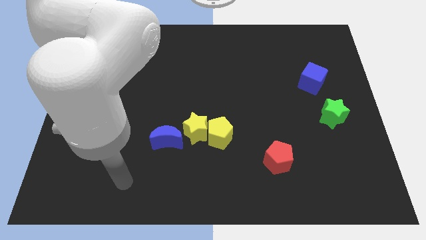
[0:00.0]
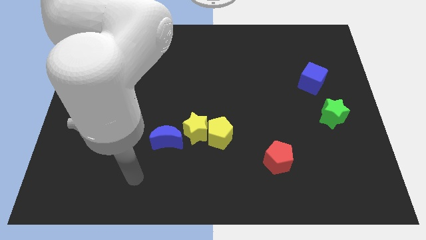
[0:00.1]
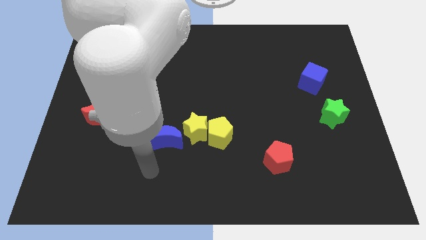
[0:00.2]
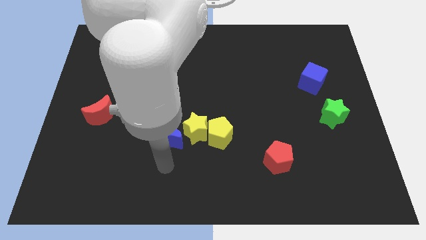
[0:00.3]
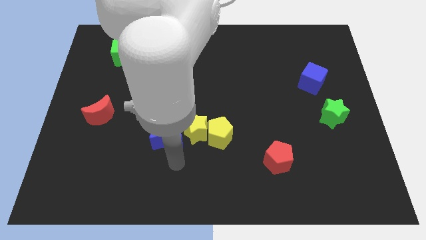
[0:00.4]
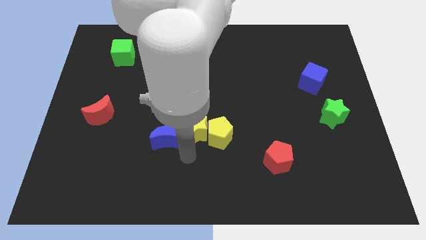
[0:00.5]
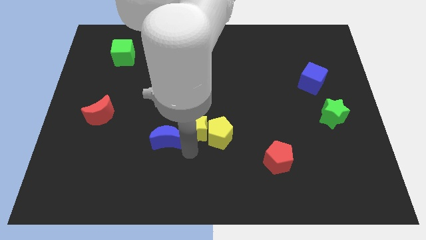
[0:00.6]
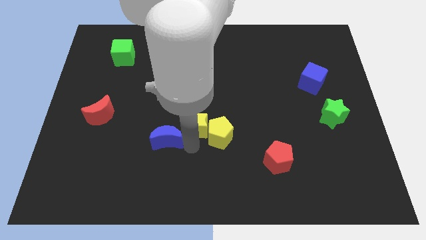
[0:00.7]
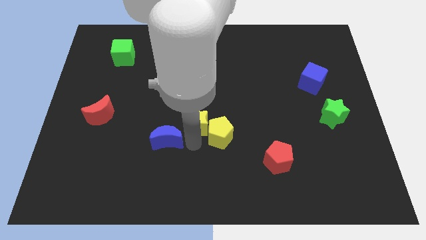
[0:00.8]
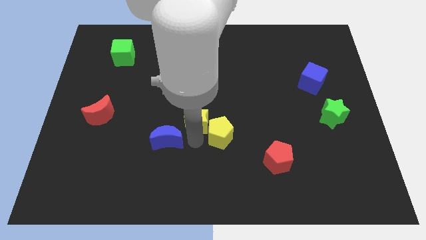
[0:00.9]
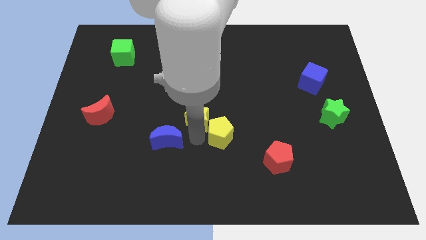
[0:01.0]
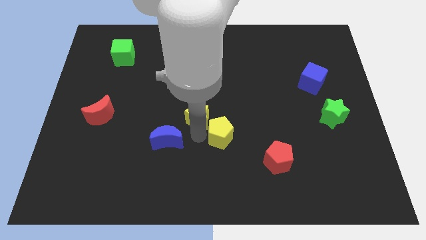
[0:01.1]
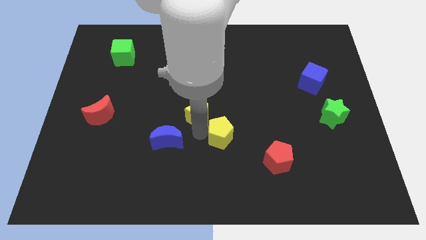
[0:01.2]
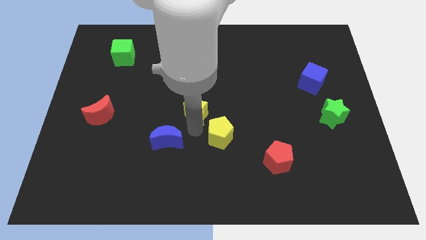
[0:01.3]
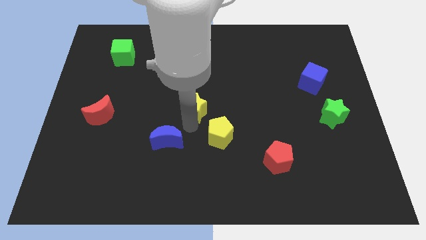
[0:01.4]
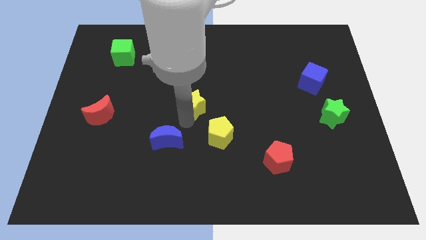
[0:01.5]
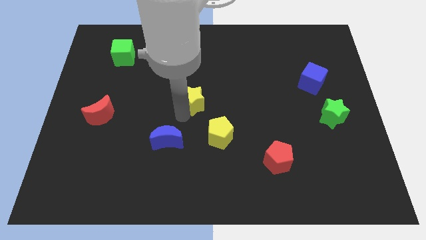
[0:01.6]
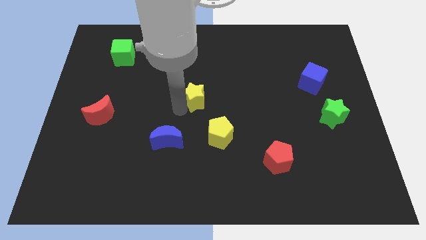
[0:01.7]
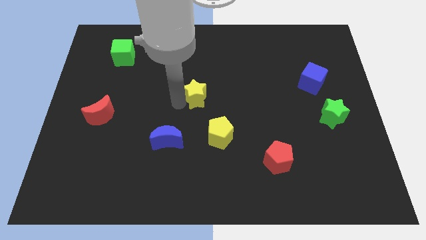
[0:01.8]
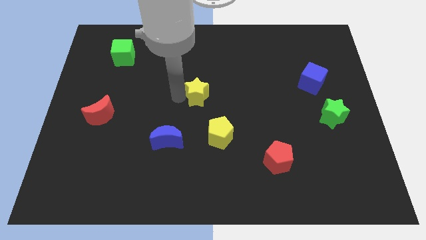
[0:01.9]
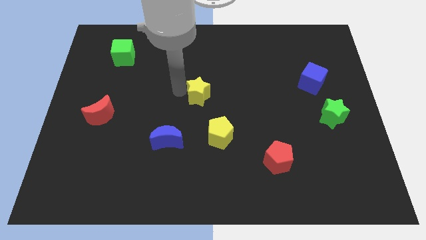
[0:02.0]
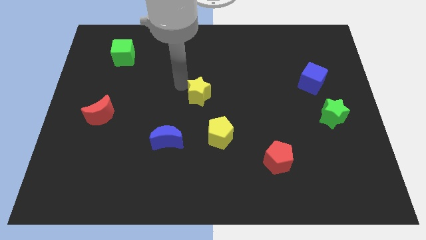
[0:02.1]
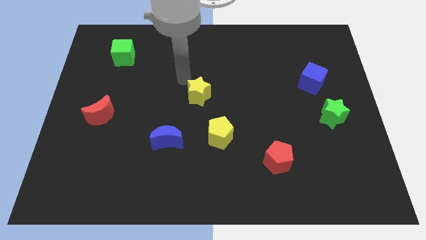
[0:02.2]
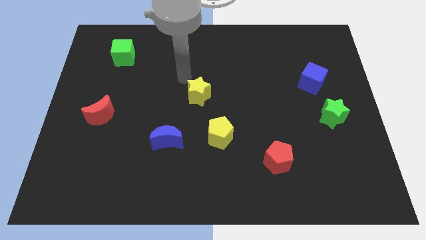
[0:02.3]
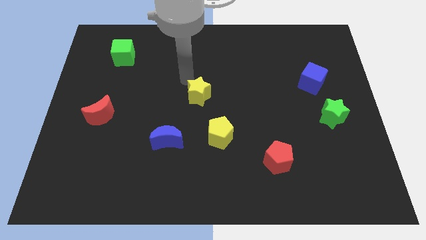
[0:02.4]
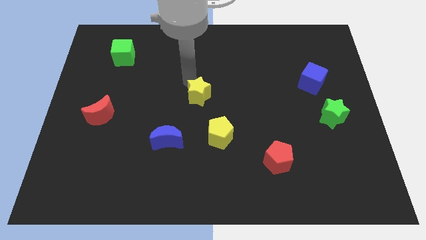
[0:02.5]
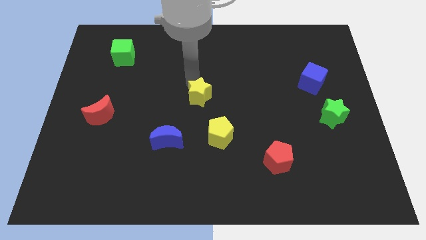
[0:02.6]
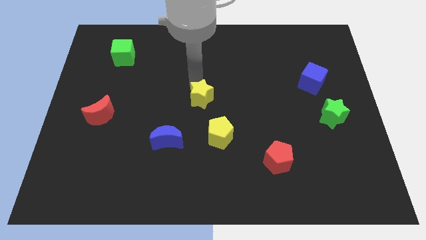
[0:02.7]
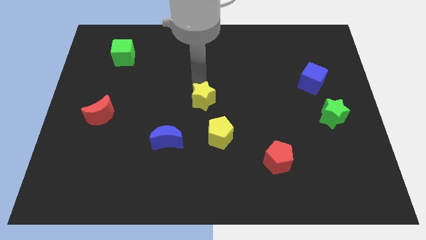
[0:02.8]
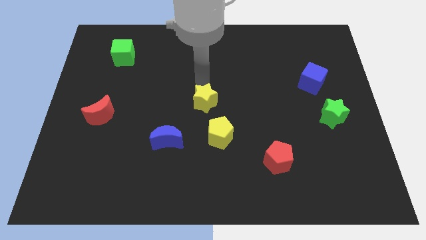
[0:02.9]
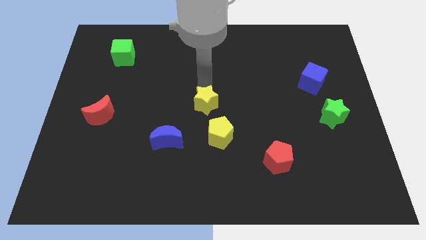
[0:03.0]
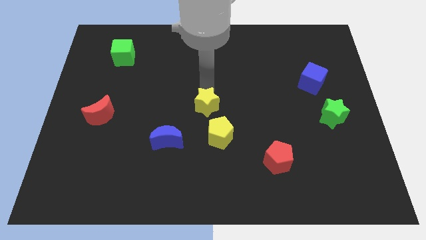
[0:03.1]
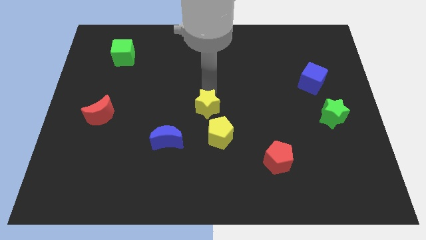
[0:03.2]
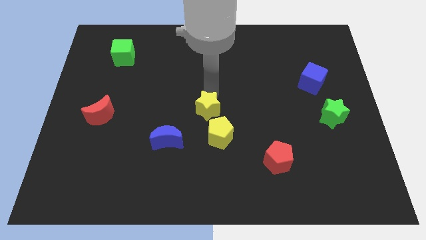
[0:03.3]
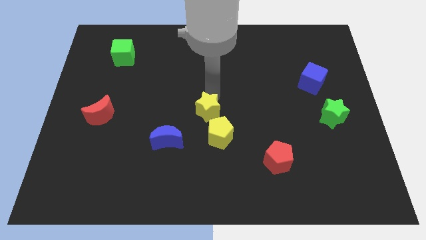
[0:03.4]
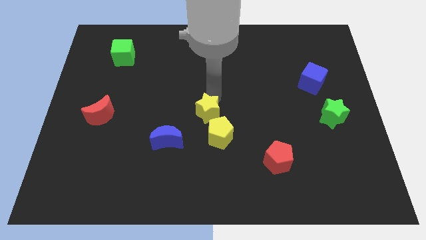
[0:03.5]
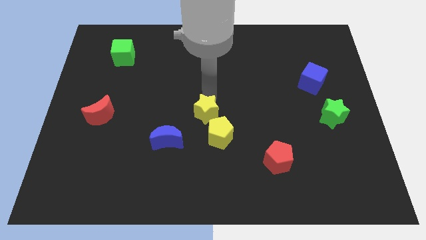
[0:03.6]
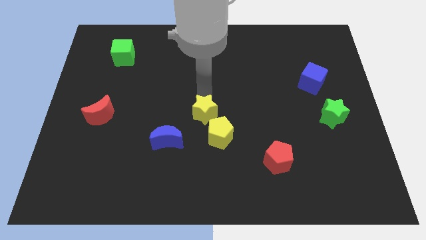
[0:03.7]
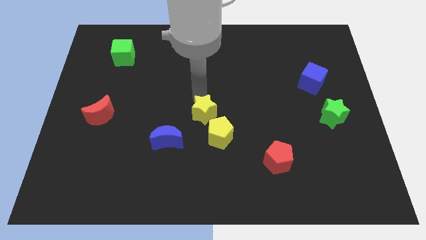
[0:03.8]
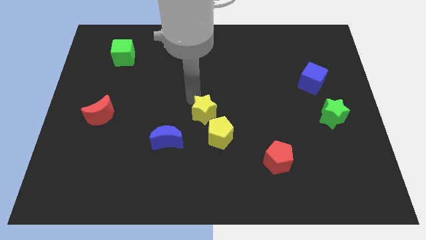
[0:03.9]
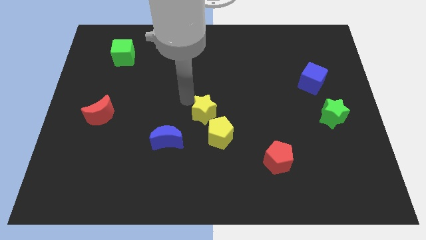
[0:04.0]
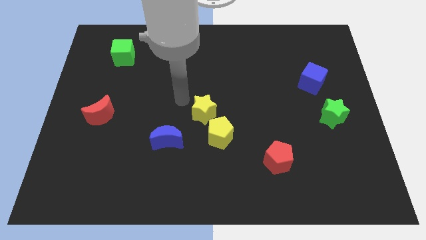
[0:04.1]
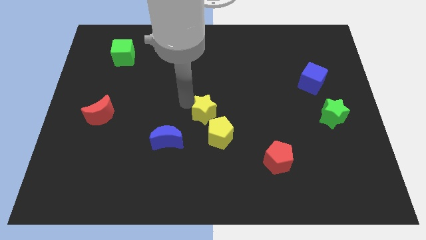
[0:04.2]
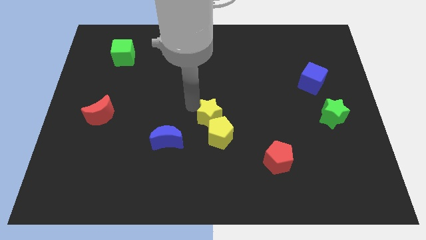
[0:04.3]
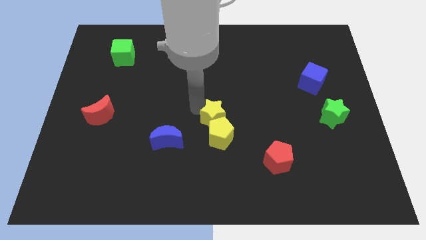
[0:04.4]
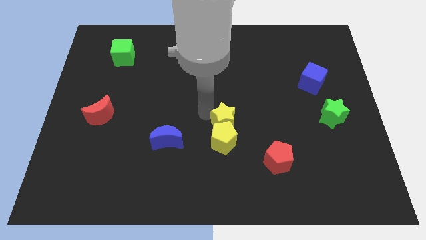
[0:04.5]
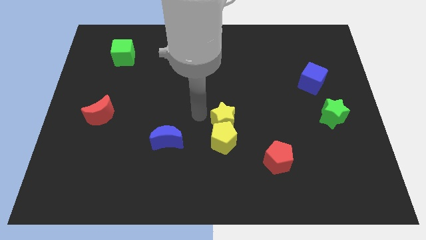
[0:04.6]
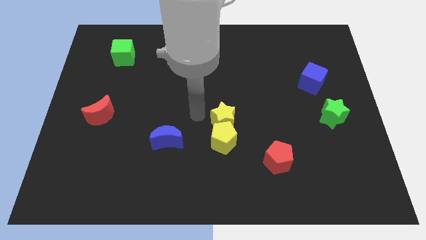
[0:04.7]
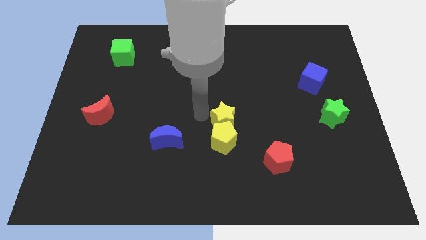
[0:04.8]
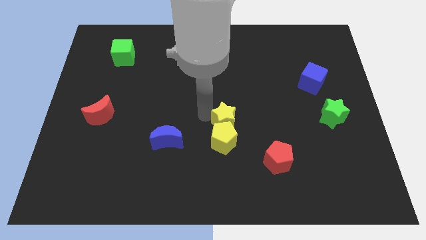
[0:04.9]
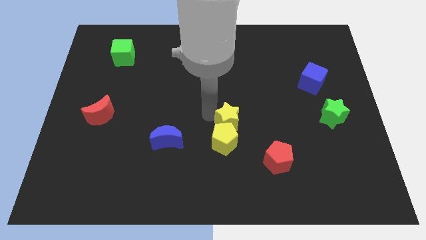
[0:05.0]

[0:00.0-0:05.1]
slide the yellow star somewhat right

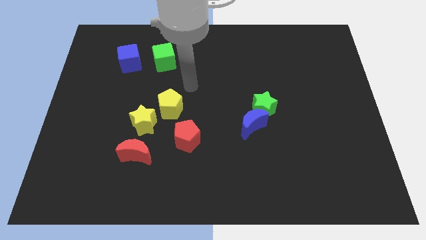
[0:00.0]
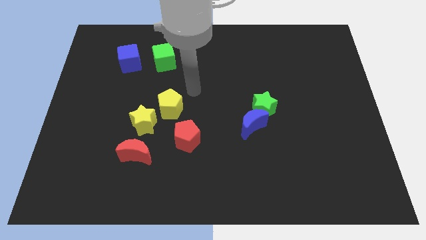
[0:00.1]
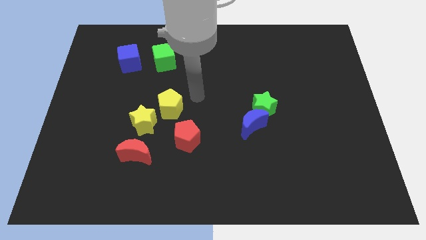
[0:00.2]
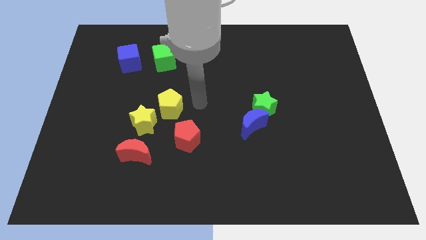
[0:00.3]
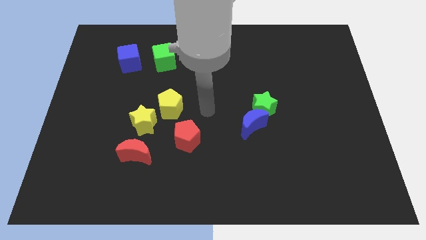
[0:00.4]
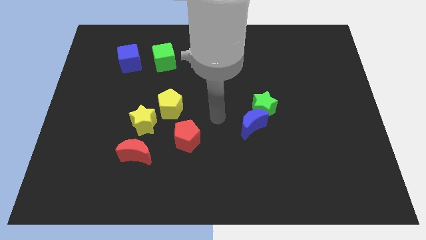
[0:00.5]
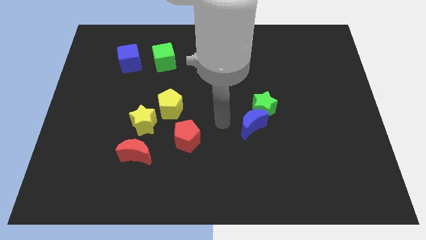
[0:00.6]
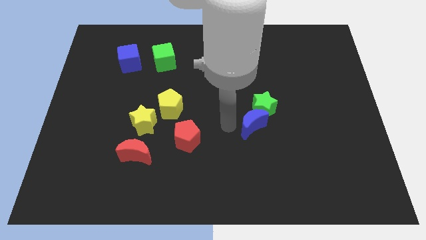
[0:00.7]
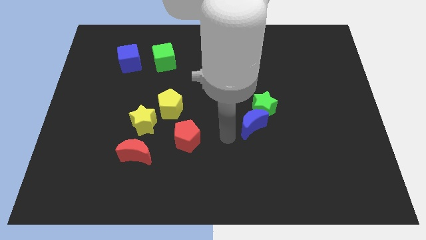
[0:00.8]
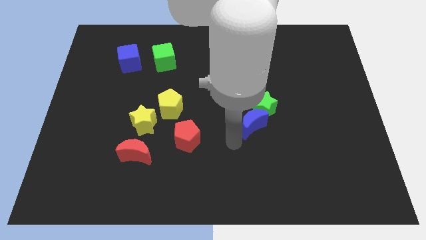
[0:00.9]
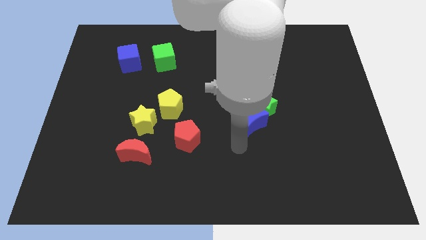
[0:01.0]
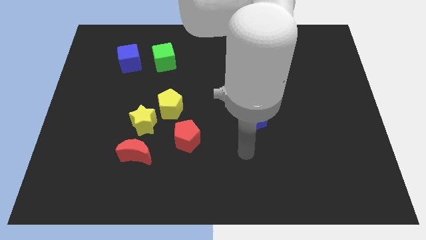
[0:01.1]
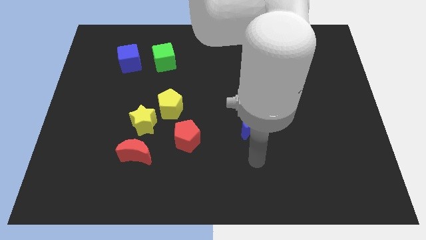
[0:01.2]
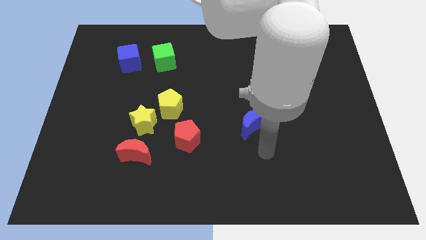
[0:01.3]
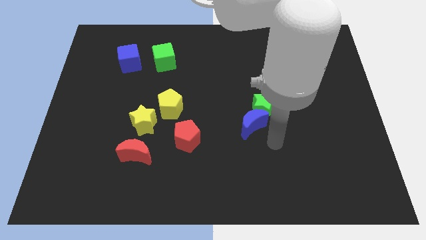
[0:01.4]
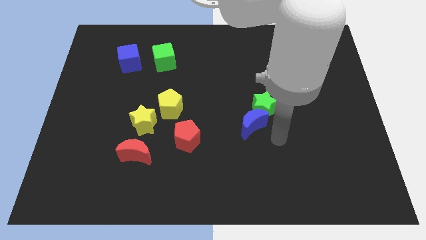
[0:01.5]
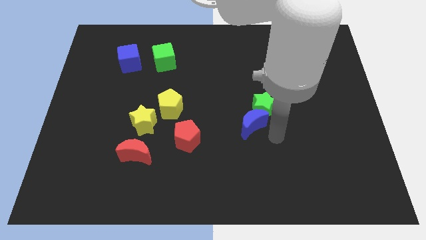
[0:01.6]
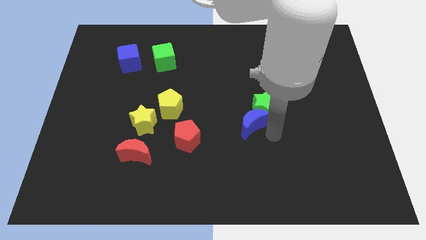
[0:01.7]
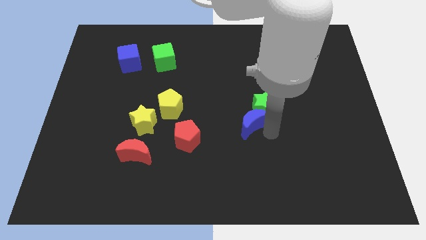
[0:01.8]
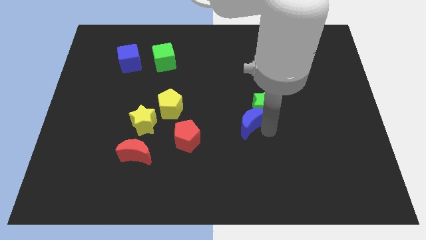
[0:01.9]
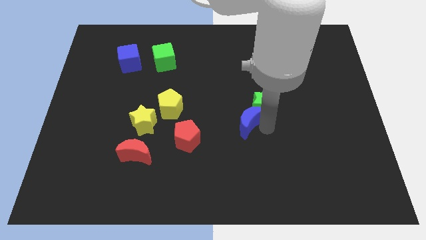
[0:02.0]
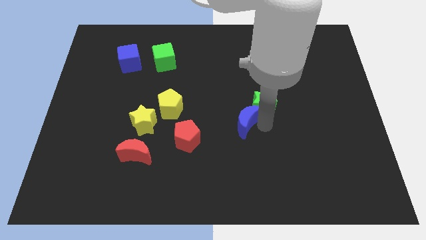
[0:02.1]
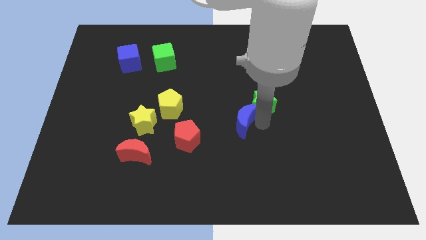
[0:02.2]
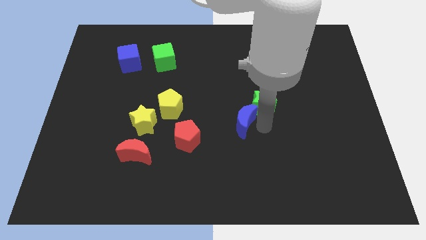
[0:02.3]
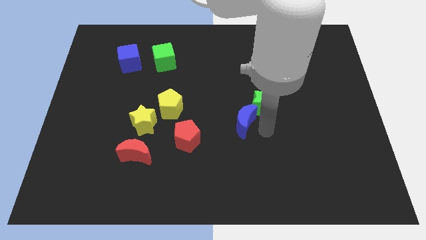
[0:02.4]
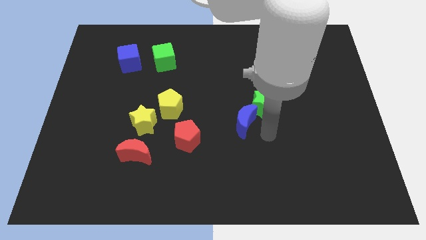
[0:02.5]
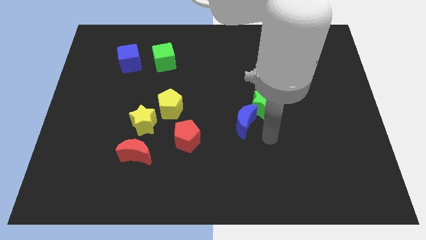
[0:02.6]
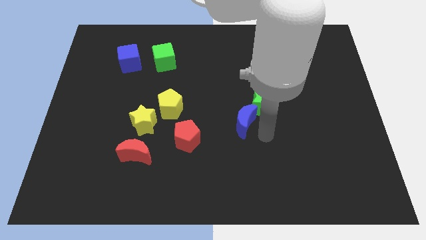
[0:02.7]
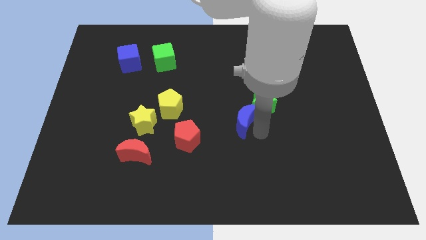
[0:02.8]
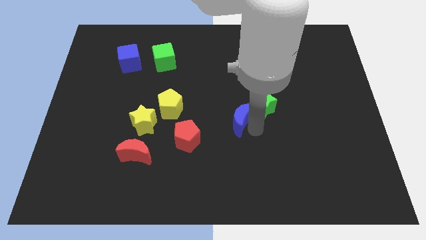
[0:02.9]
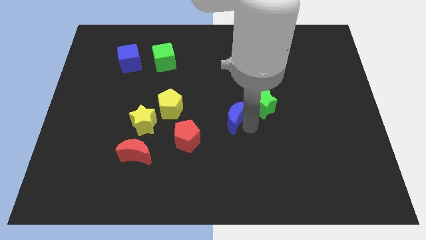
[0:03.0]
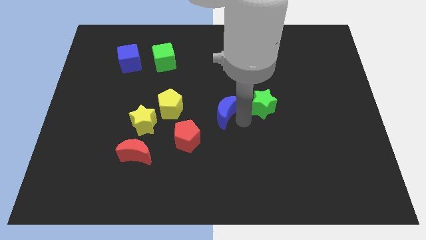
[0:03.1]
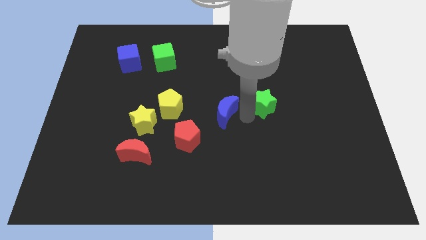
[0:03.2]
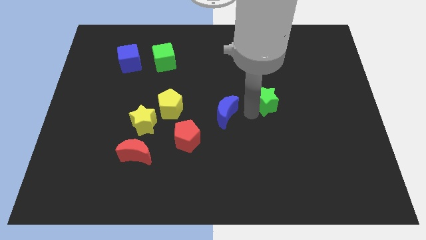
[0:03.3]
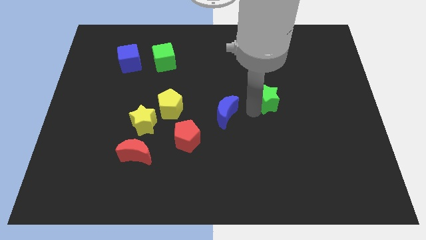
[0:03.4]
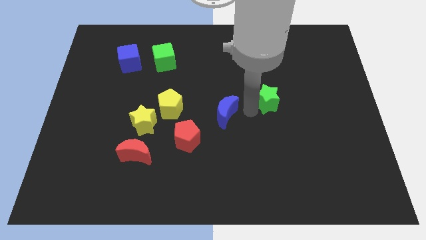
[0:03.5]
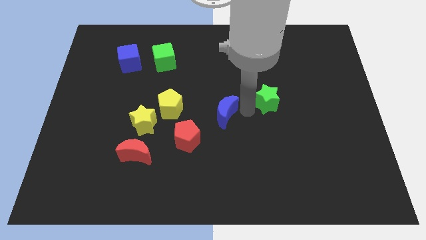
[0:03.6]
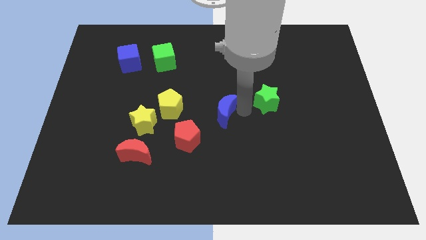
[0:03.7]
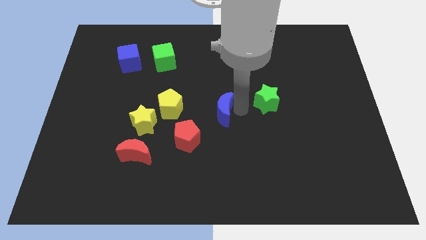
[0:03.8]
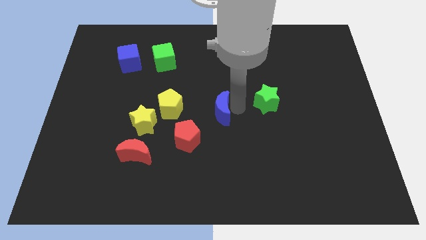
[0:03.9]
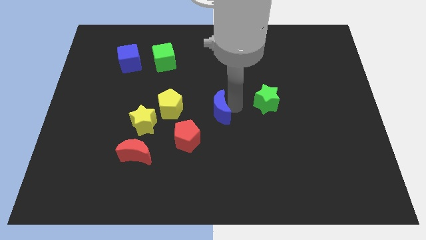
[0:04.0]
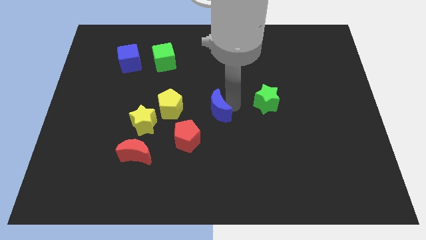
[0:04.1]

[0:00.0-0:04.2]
slightly push the blue moon left
